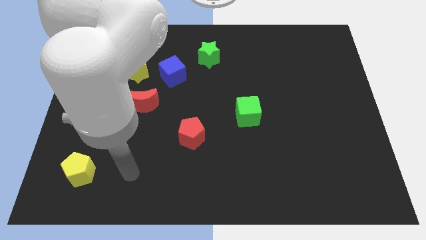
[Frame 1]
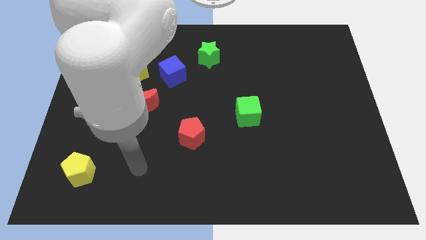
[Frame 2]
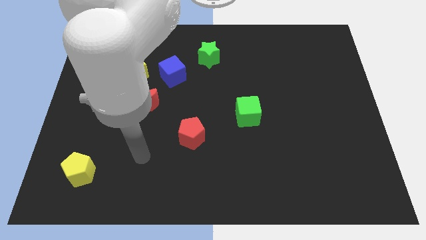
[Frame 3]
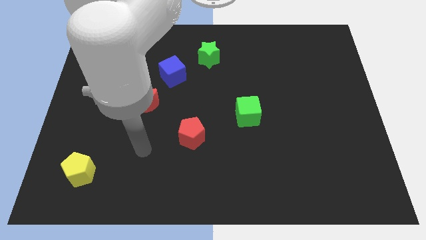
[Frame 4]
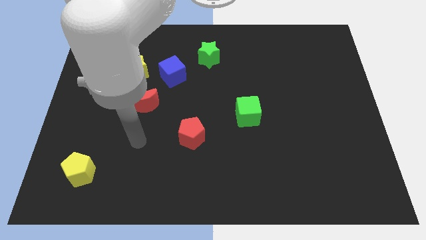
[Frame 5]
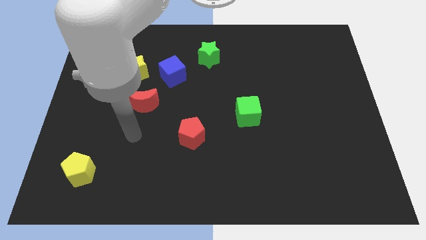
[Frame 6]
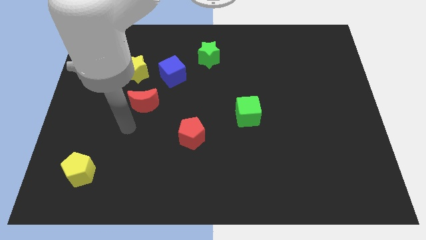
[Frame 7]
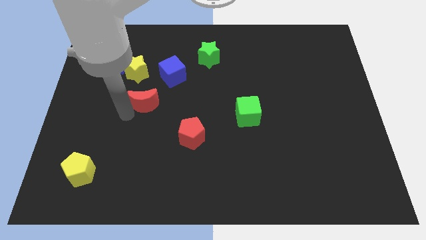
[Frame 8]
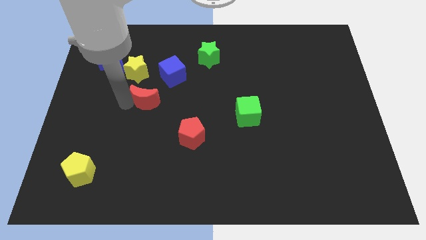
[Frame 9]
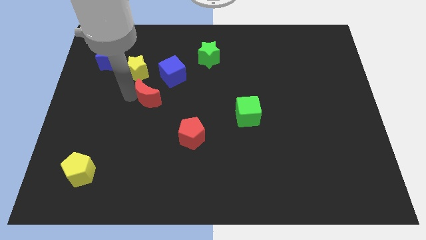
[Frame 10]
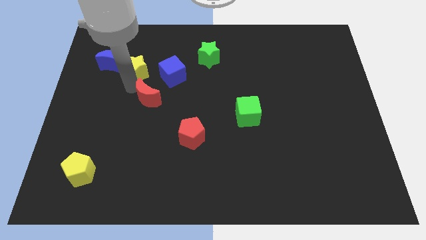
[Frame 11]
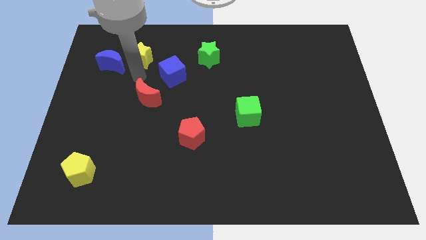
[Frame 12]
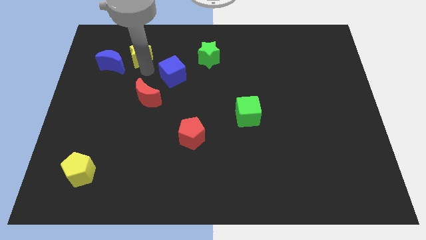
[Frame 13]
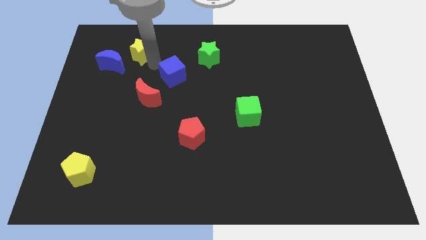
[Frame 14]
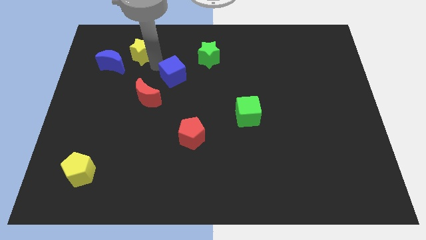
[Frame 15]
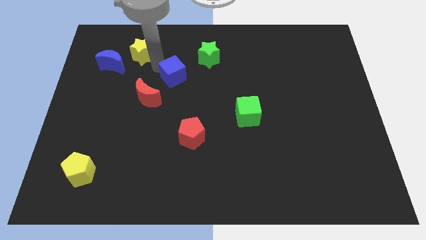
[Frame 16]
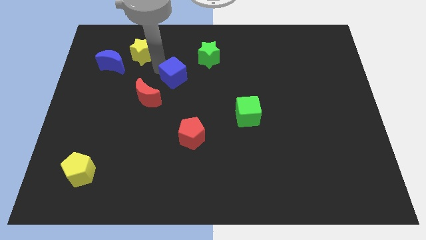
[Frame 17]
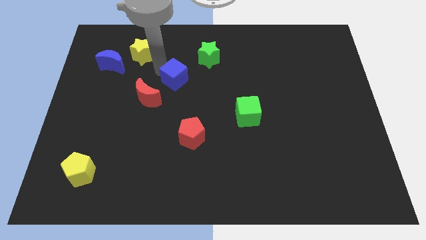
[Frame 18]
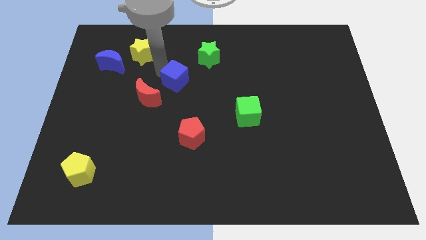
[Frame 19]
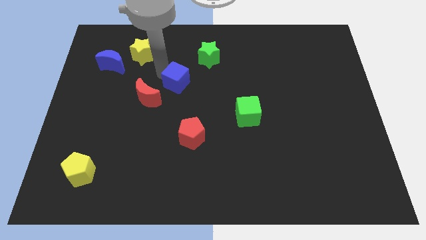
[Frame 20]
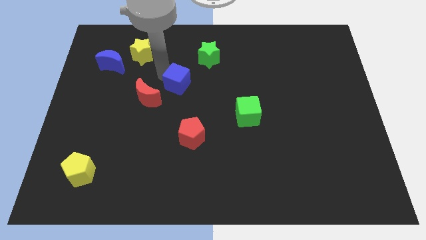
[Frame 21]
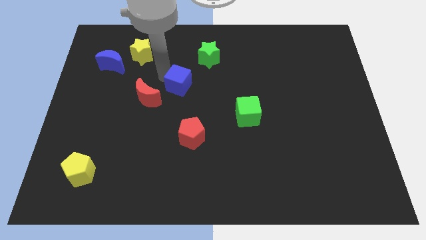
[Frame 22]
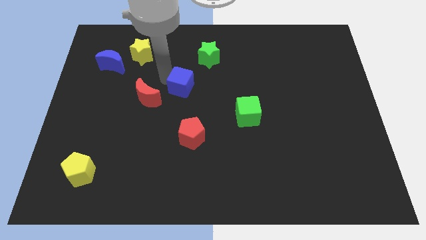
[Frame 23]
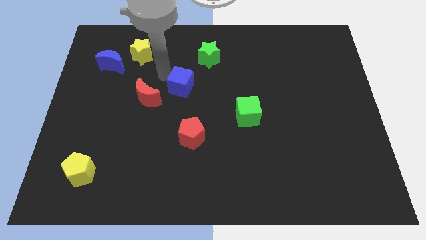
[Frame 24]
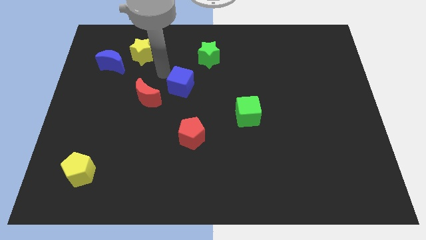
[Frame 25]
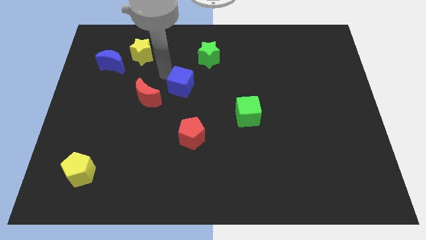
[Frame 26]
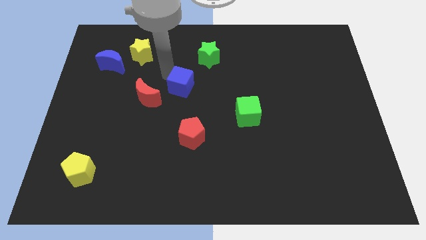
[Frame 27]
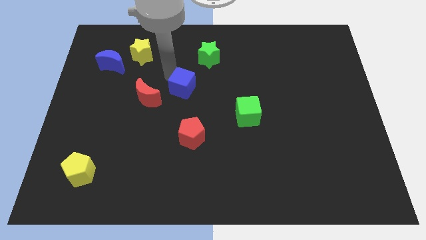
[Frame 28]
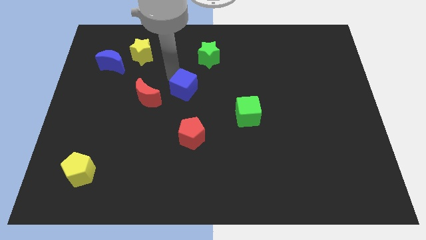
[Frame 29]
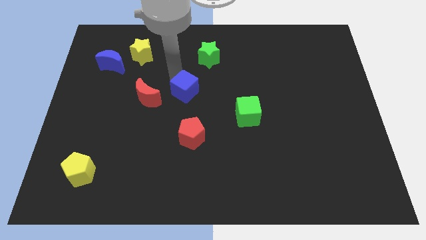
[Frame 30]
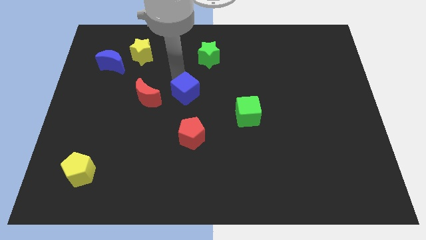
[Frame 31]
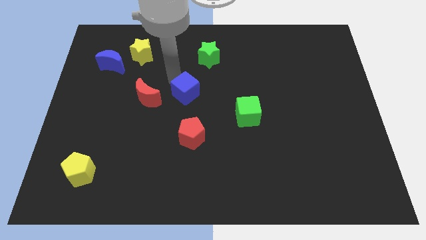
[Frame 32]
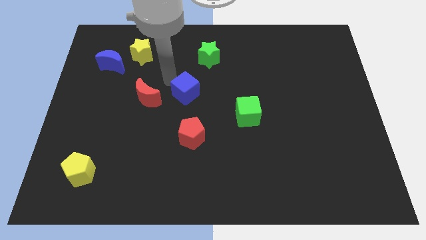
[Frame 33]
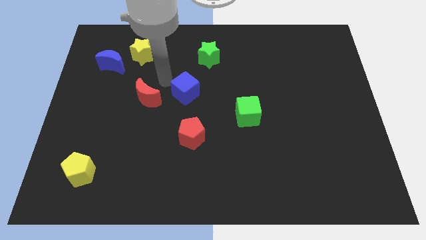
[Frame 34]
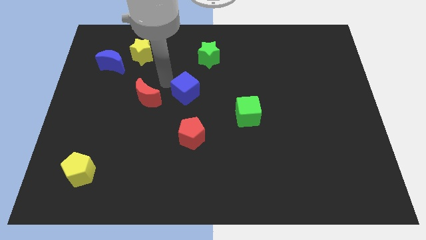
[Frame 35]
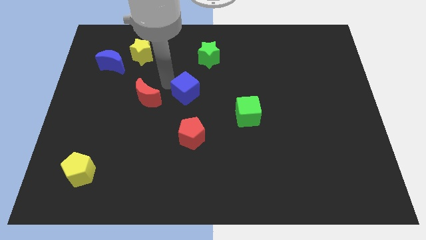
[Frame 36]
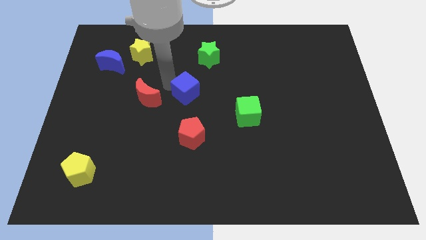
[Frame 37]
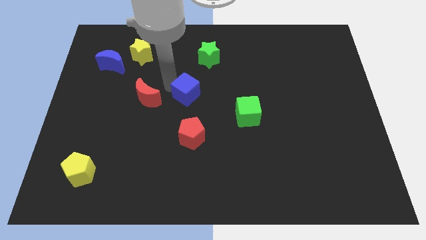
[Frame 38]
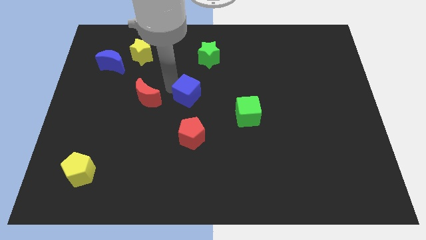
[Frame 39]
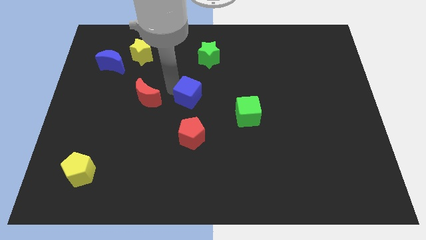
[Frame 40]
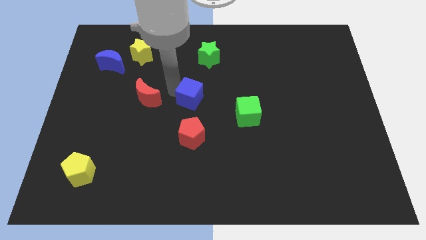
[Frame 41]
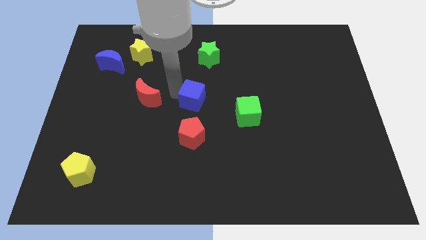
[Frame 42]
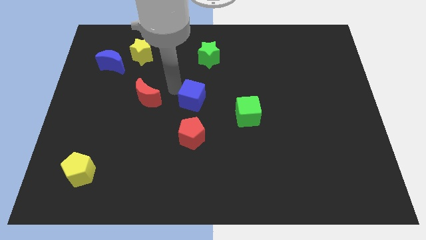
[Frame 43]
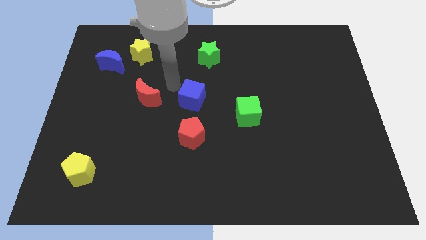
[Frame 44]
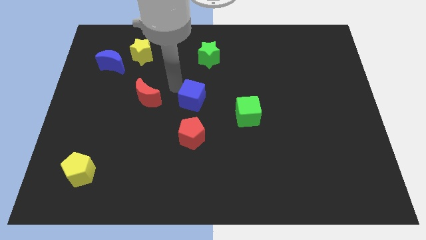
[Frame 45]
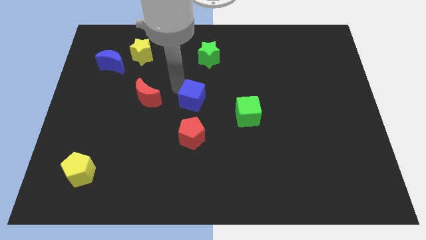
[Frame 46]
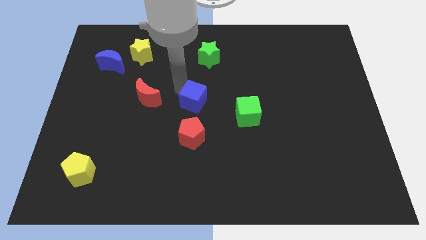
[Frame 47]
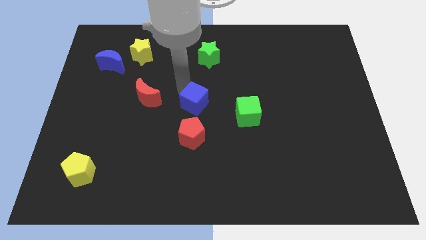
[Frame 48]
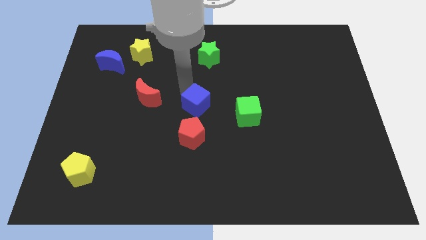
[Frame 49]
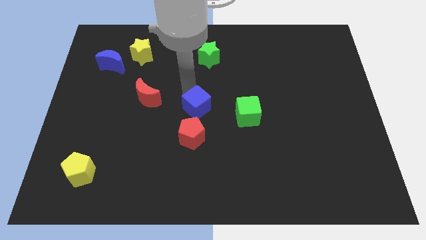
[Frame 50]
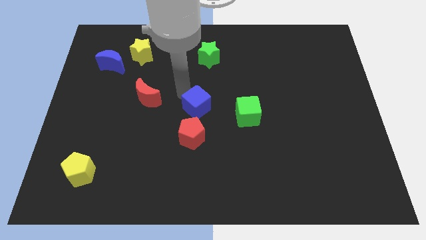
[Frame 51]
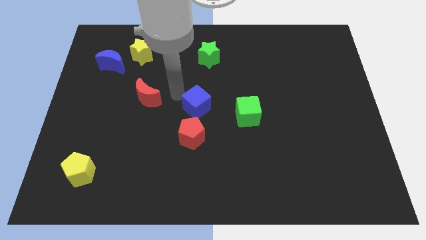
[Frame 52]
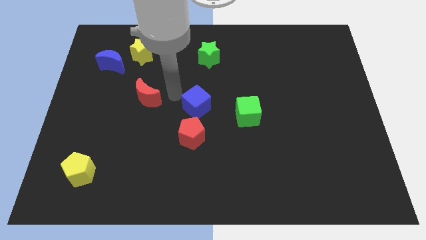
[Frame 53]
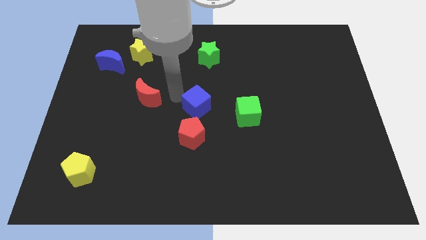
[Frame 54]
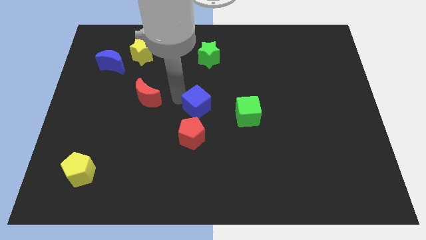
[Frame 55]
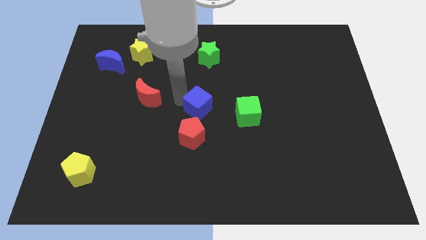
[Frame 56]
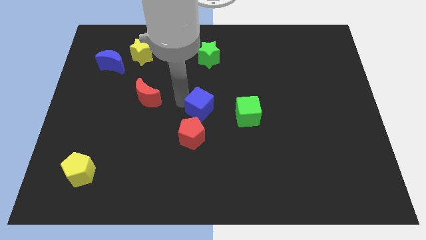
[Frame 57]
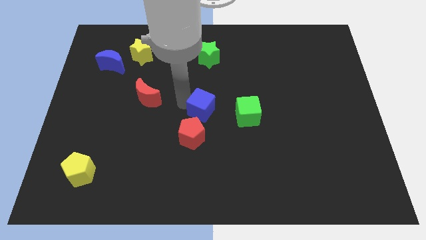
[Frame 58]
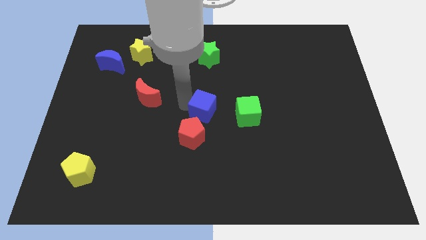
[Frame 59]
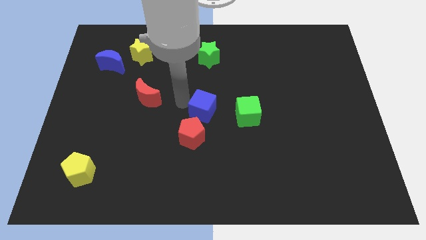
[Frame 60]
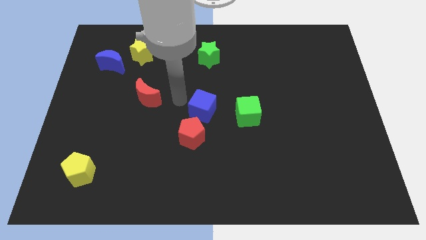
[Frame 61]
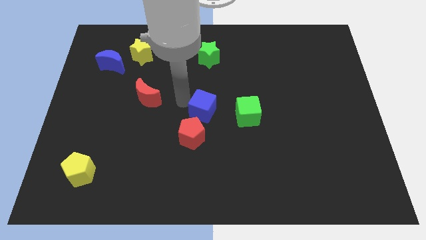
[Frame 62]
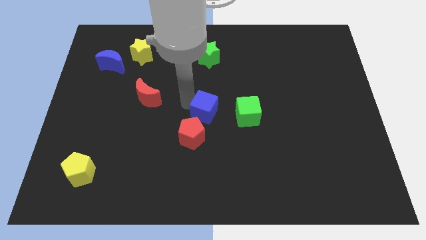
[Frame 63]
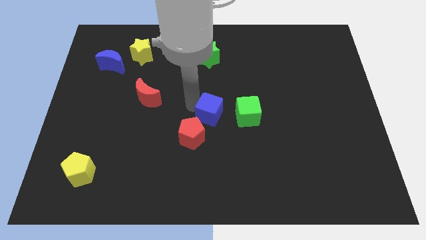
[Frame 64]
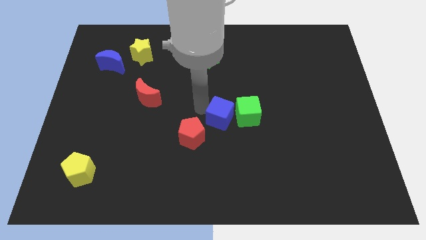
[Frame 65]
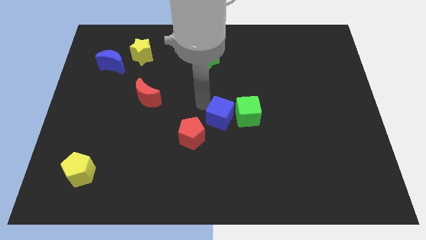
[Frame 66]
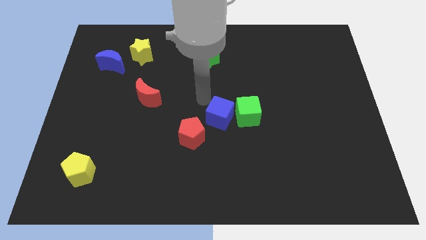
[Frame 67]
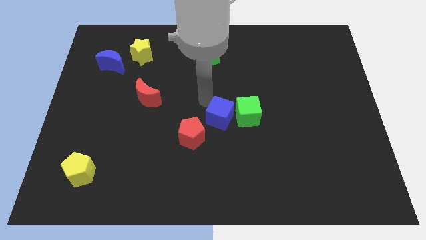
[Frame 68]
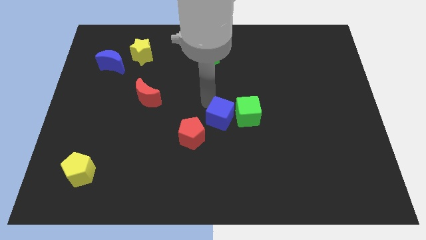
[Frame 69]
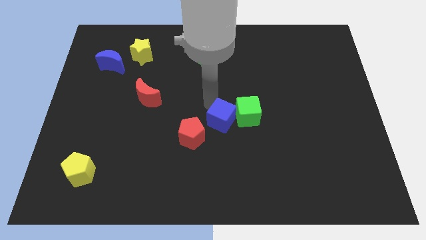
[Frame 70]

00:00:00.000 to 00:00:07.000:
slide the blue cube to the right side of the red pentagon
